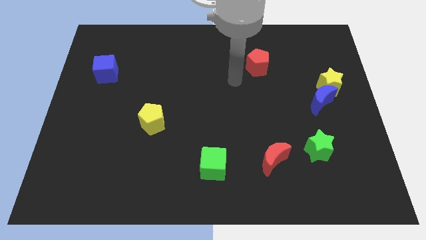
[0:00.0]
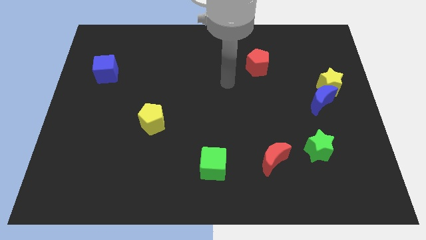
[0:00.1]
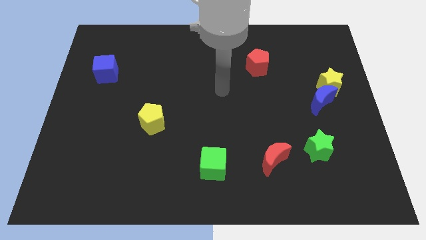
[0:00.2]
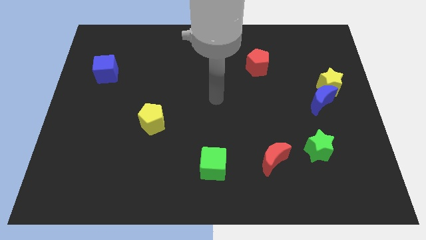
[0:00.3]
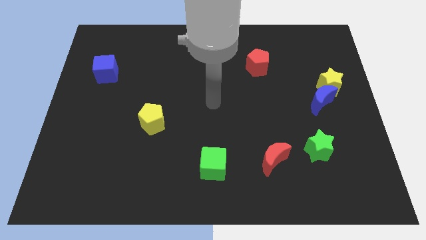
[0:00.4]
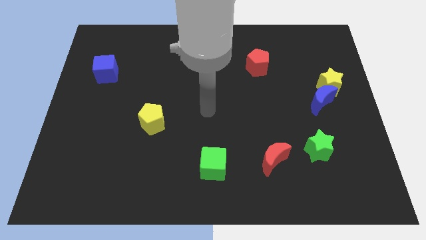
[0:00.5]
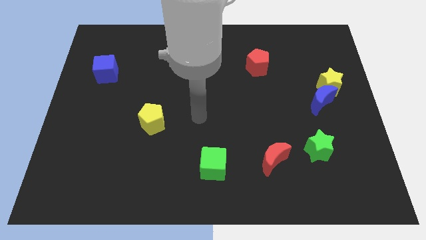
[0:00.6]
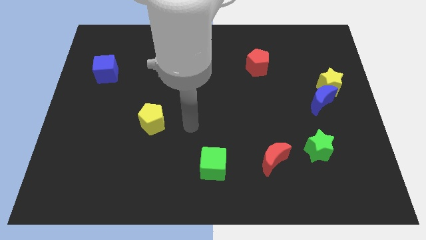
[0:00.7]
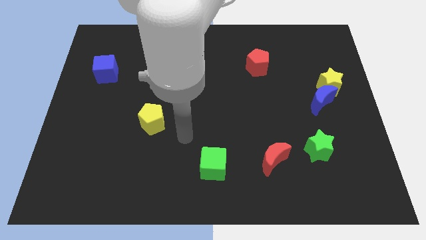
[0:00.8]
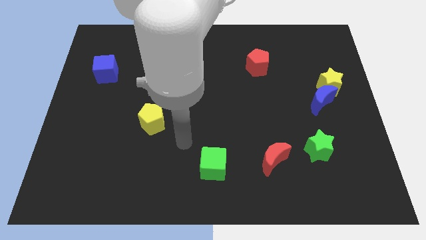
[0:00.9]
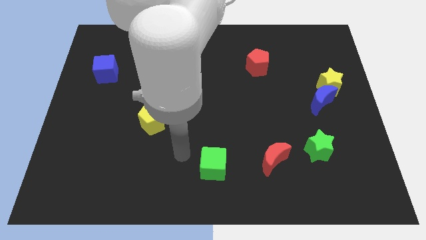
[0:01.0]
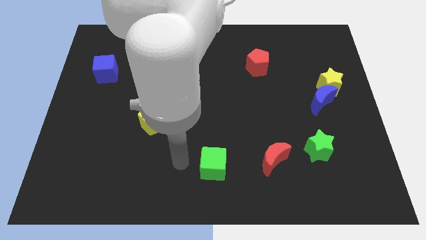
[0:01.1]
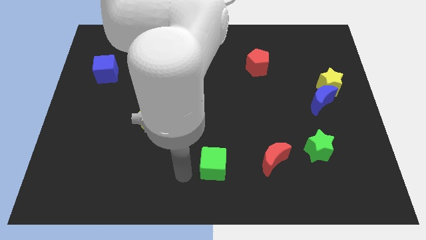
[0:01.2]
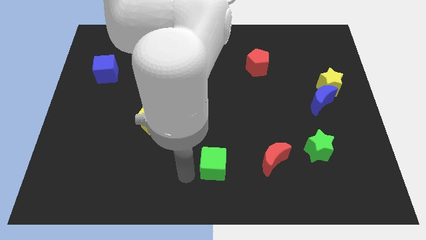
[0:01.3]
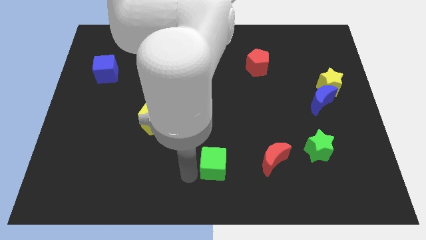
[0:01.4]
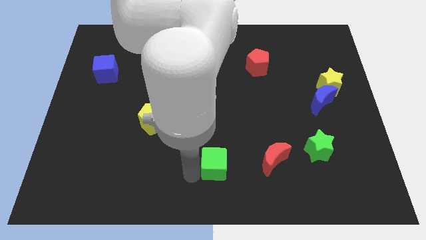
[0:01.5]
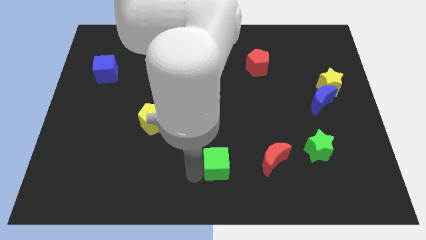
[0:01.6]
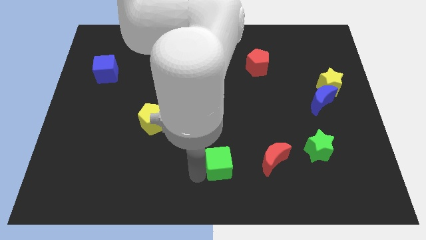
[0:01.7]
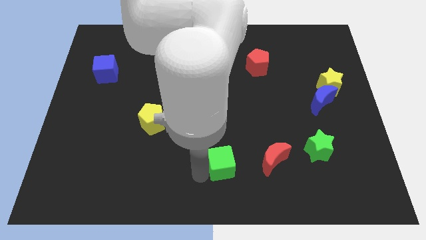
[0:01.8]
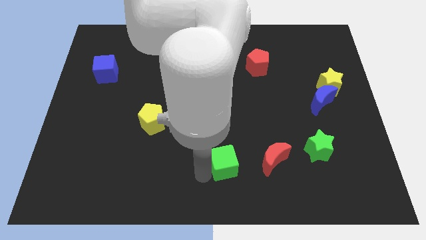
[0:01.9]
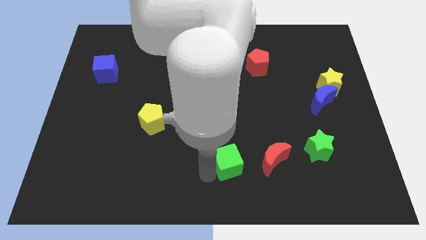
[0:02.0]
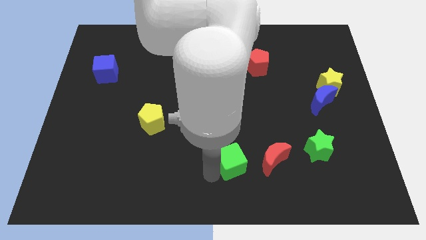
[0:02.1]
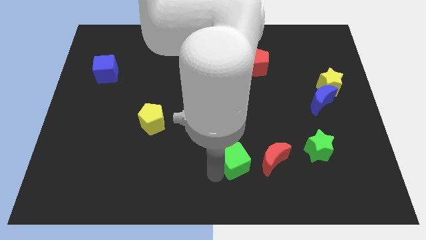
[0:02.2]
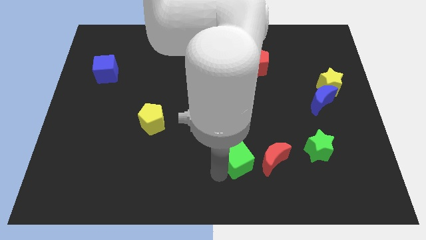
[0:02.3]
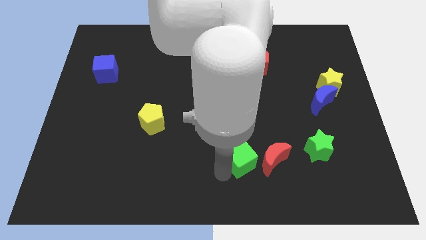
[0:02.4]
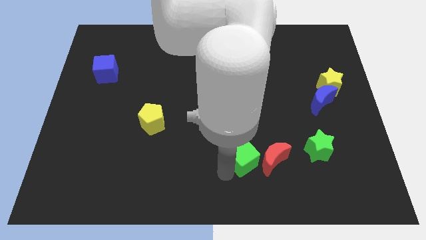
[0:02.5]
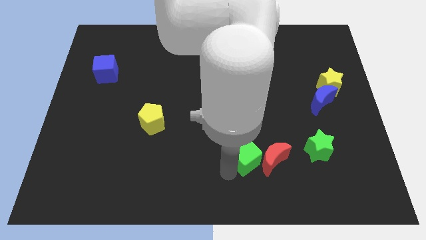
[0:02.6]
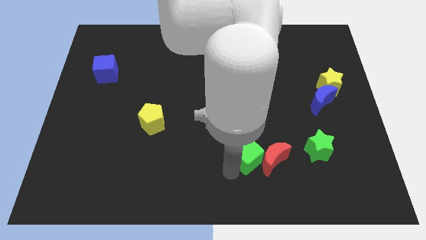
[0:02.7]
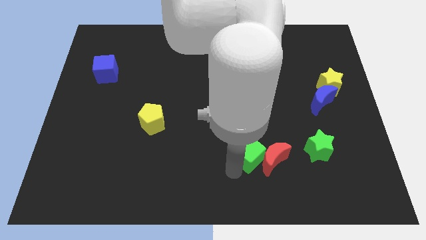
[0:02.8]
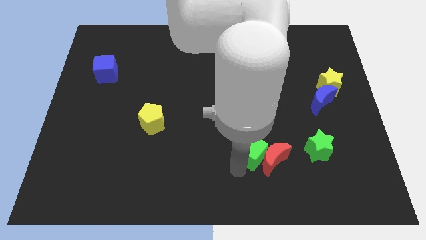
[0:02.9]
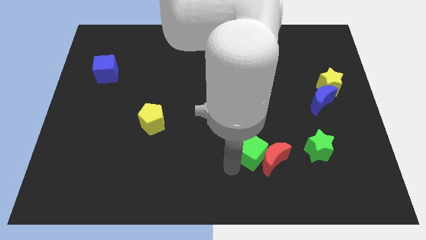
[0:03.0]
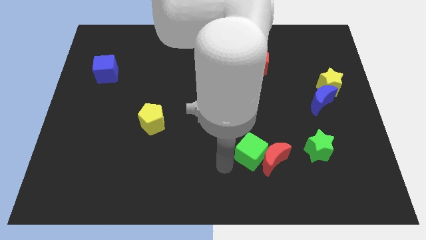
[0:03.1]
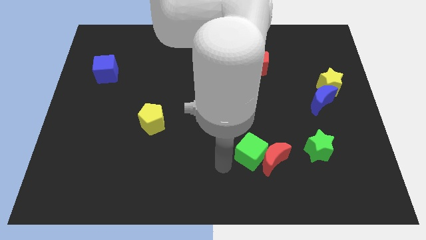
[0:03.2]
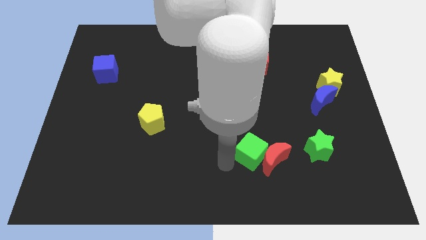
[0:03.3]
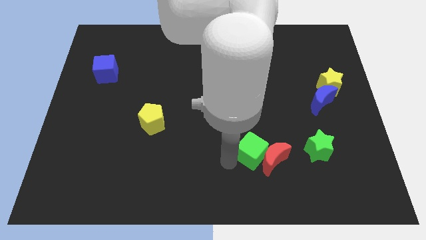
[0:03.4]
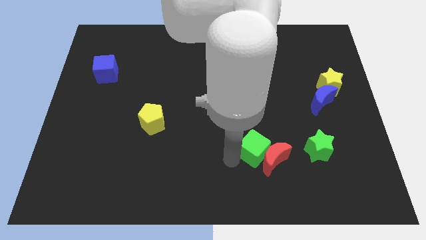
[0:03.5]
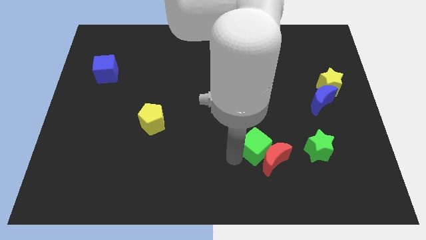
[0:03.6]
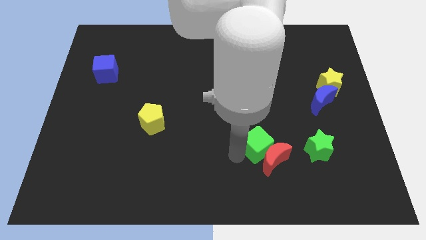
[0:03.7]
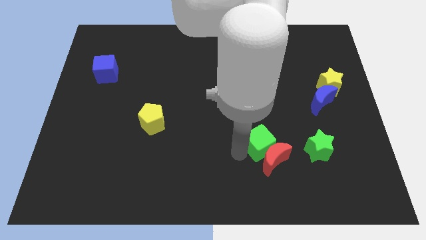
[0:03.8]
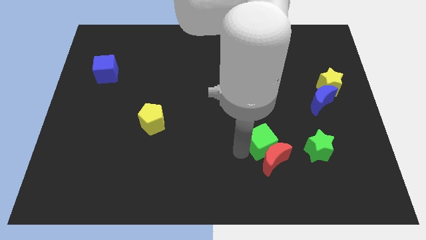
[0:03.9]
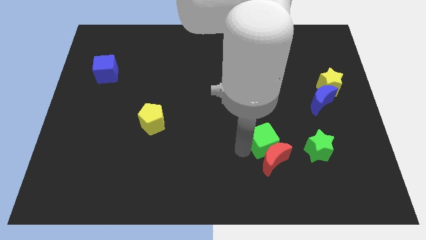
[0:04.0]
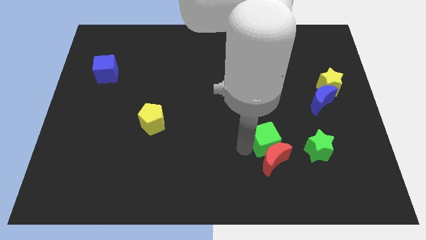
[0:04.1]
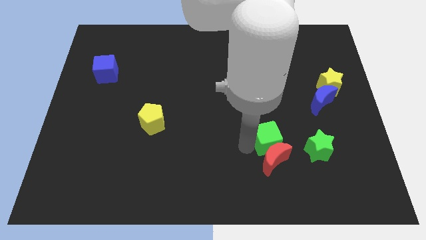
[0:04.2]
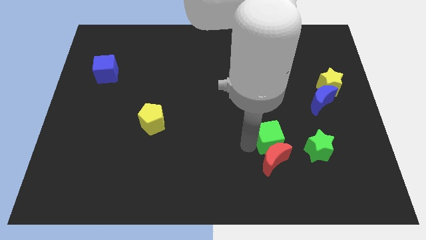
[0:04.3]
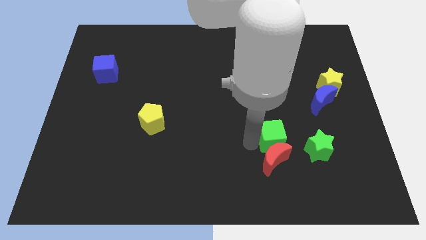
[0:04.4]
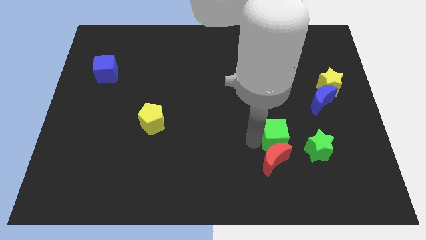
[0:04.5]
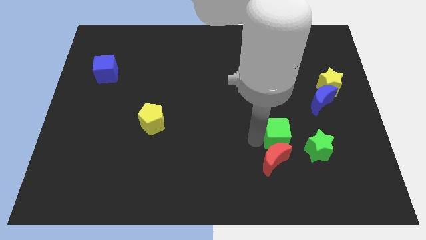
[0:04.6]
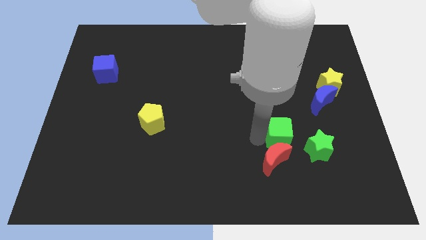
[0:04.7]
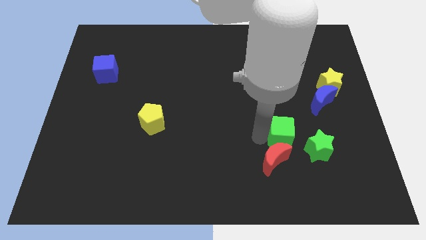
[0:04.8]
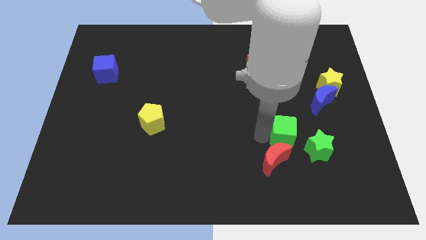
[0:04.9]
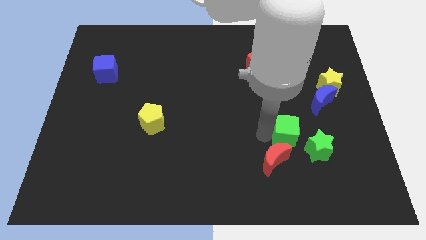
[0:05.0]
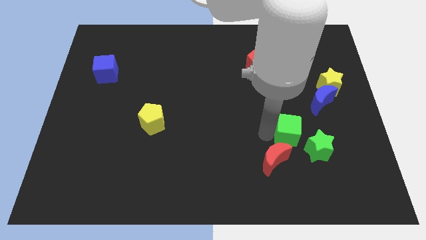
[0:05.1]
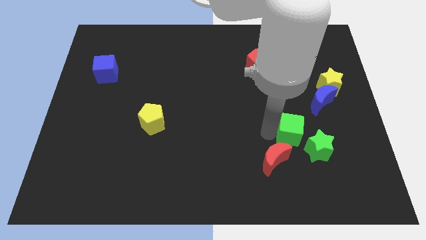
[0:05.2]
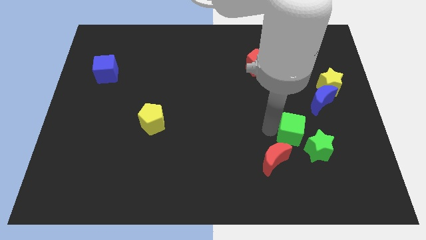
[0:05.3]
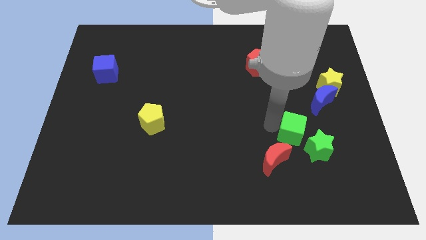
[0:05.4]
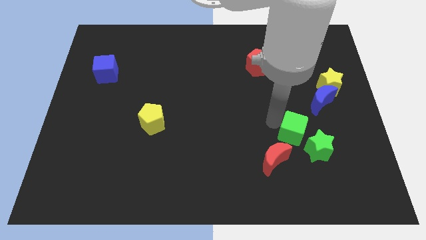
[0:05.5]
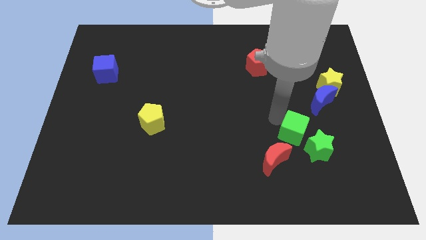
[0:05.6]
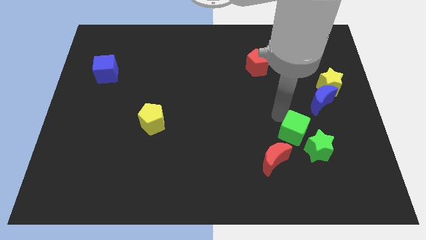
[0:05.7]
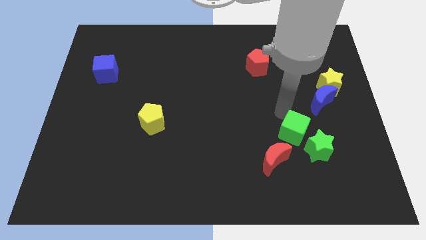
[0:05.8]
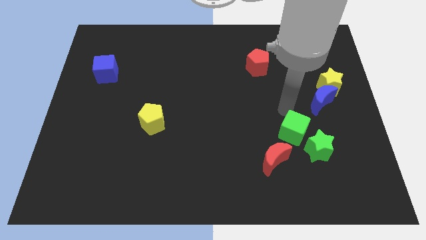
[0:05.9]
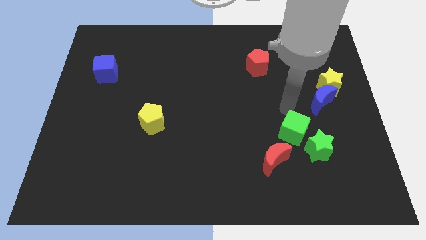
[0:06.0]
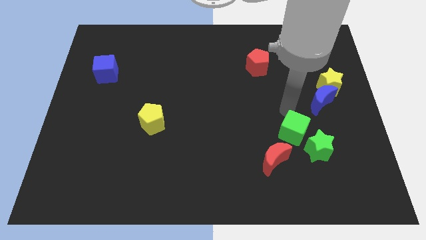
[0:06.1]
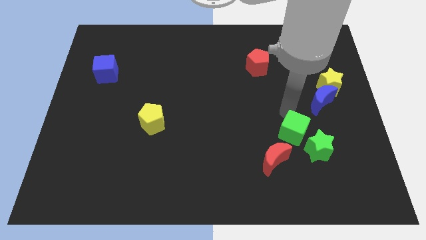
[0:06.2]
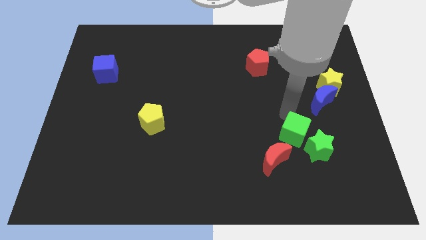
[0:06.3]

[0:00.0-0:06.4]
put the green cube towards the green star

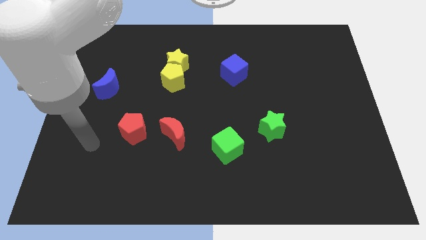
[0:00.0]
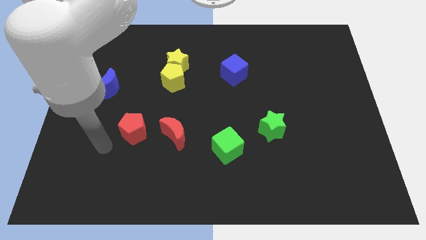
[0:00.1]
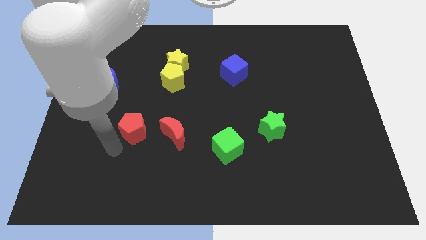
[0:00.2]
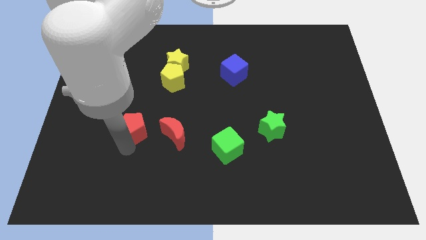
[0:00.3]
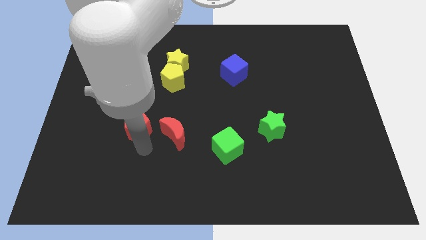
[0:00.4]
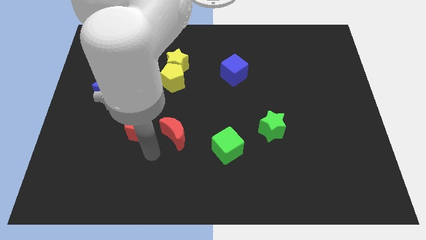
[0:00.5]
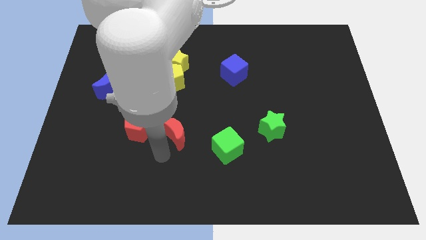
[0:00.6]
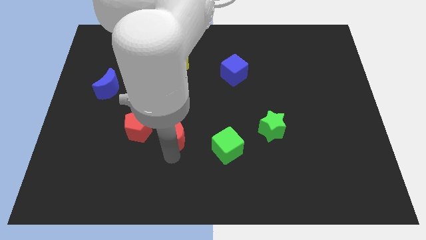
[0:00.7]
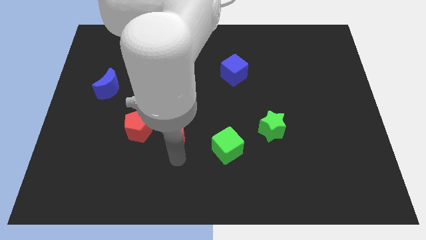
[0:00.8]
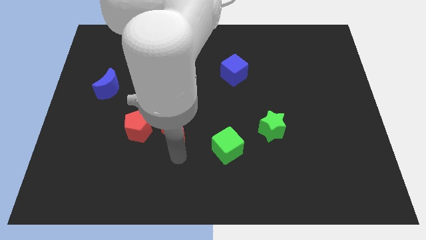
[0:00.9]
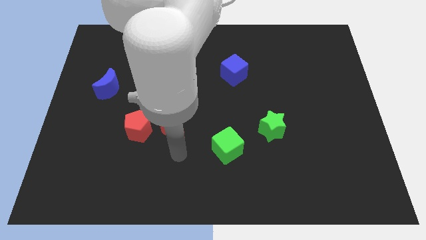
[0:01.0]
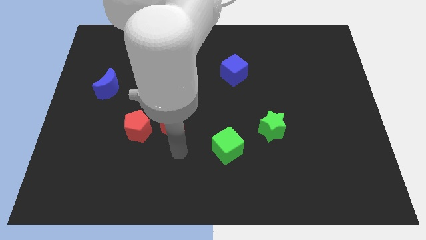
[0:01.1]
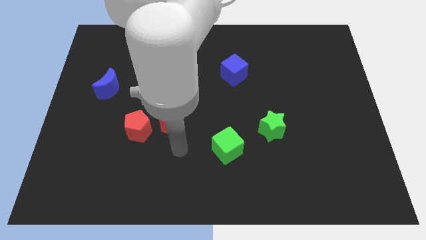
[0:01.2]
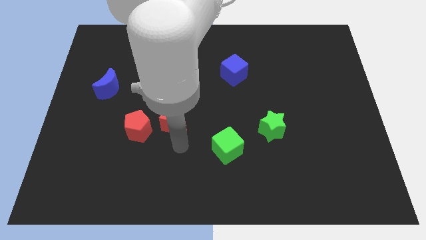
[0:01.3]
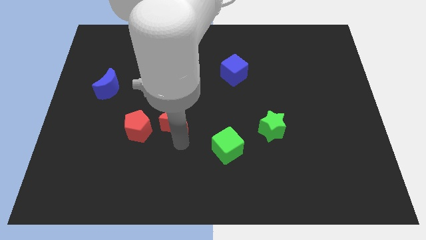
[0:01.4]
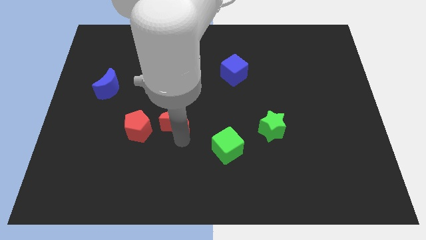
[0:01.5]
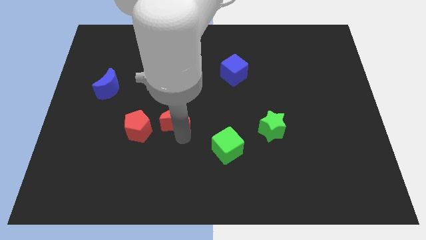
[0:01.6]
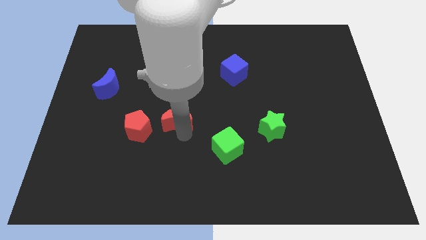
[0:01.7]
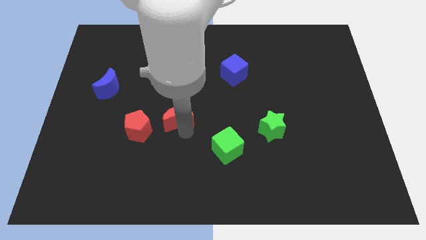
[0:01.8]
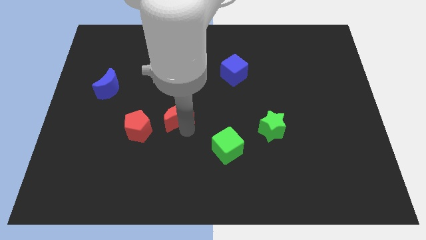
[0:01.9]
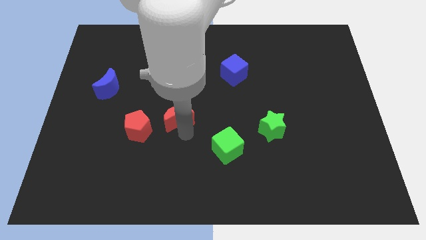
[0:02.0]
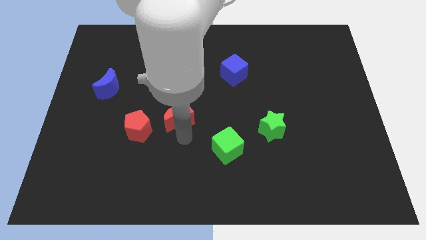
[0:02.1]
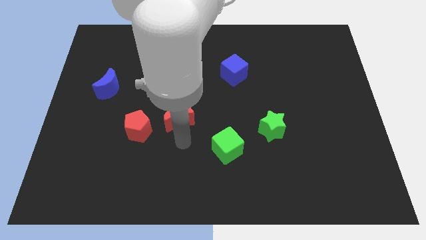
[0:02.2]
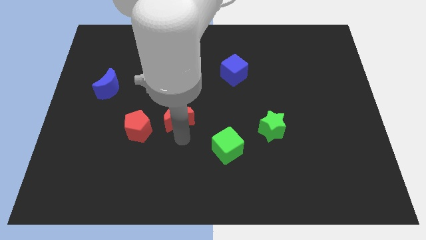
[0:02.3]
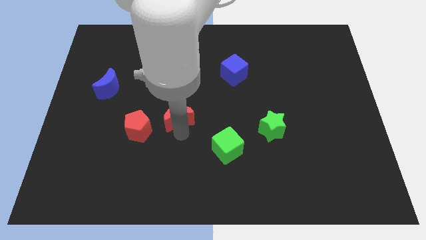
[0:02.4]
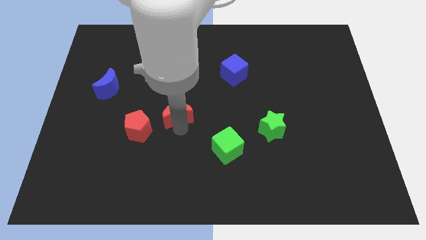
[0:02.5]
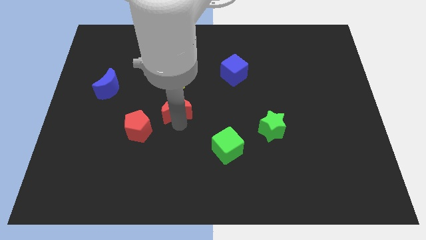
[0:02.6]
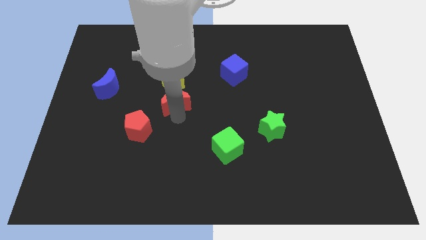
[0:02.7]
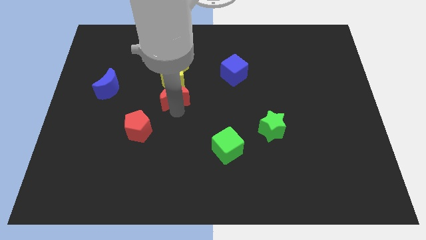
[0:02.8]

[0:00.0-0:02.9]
push the red moon to the yellow pentagon
